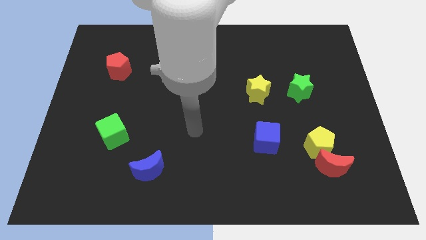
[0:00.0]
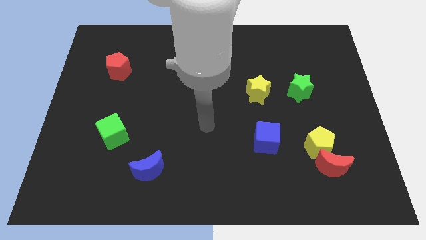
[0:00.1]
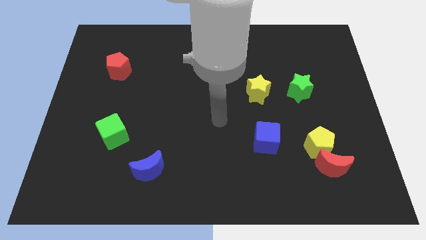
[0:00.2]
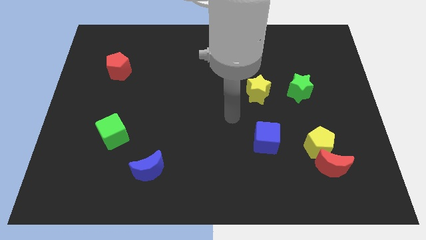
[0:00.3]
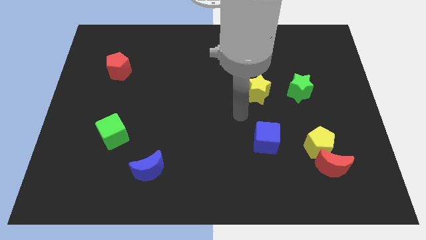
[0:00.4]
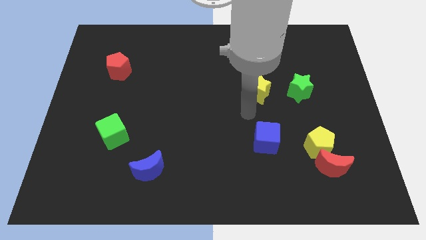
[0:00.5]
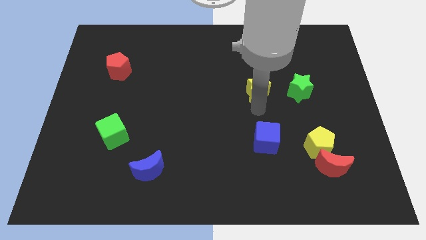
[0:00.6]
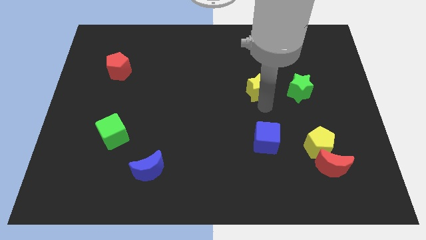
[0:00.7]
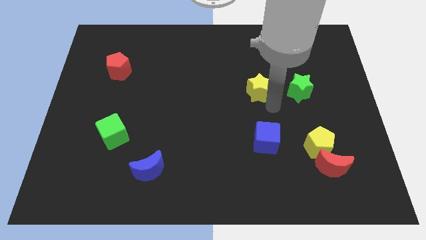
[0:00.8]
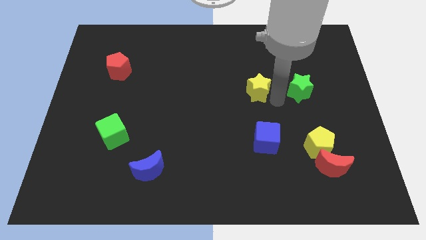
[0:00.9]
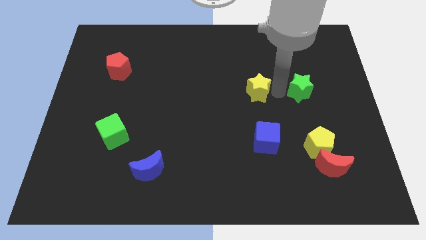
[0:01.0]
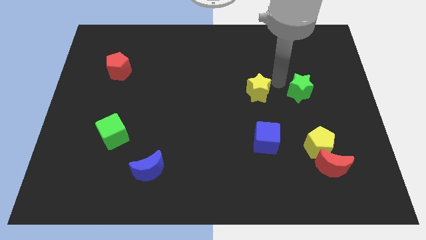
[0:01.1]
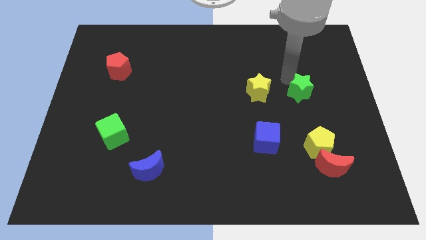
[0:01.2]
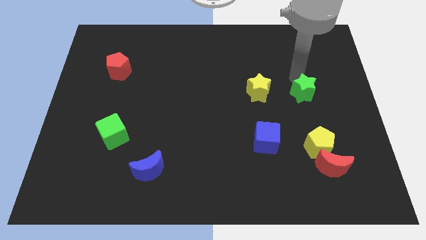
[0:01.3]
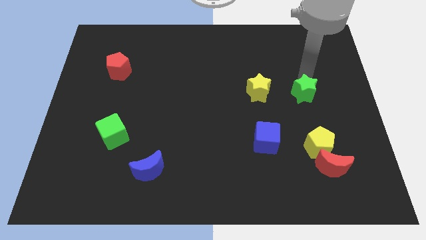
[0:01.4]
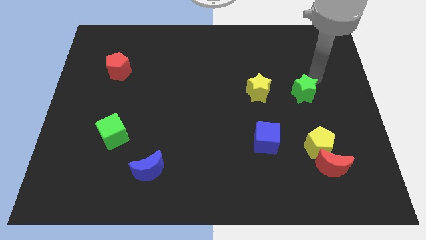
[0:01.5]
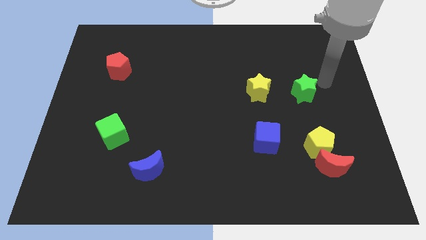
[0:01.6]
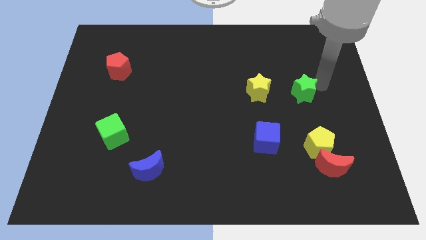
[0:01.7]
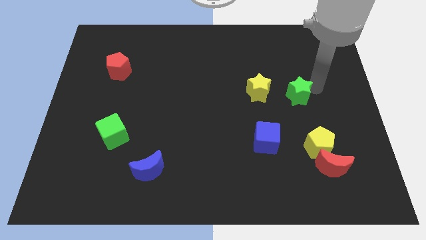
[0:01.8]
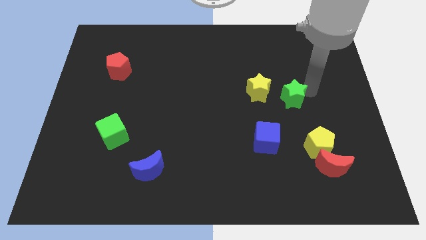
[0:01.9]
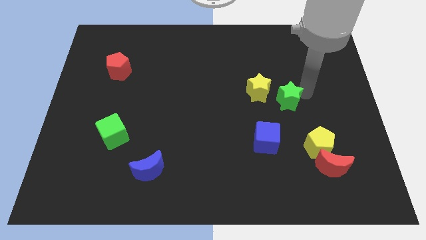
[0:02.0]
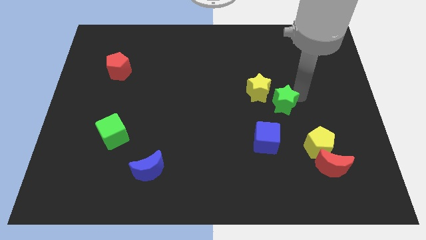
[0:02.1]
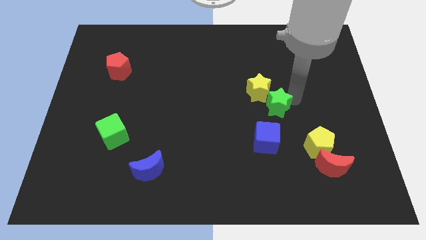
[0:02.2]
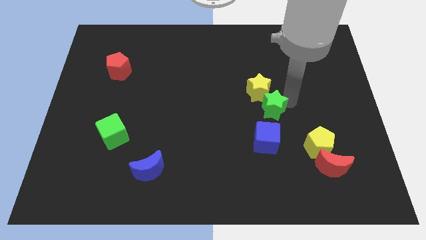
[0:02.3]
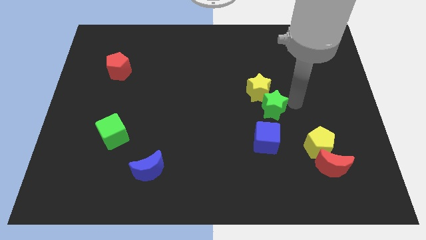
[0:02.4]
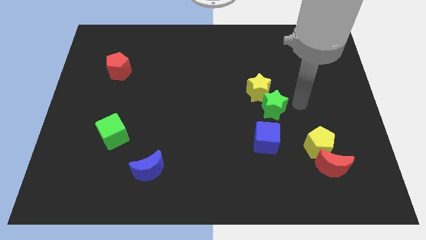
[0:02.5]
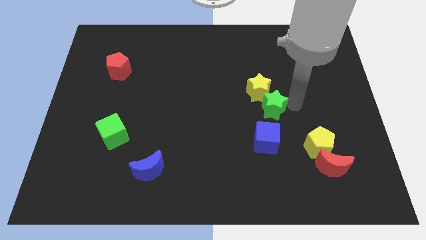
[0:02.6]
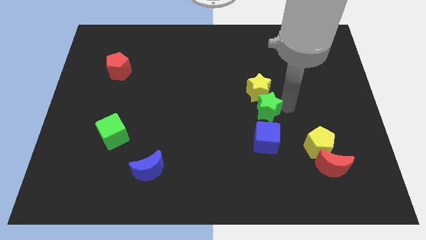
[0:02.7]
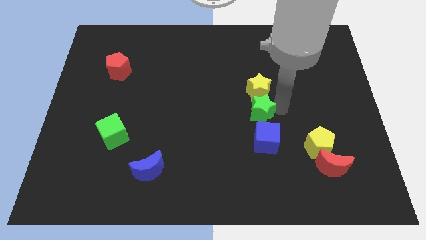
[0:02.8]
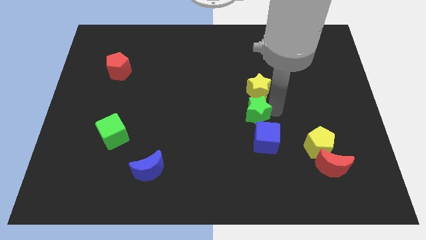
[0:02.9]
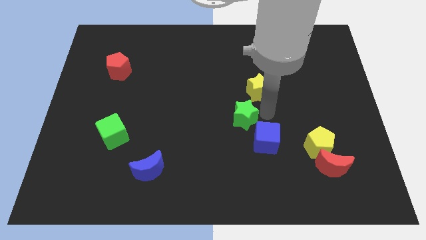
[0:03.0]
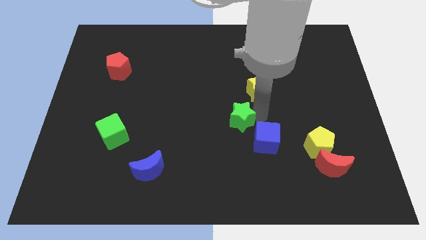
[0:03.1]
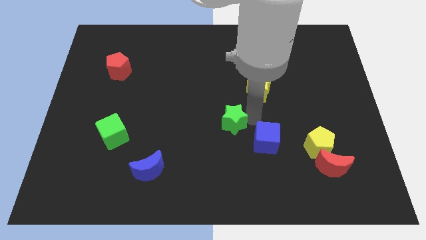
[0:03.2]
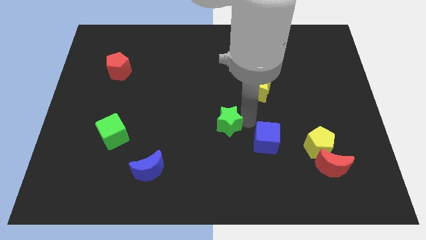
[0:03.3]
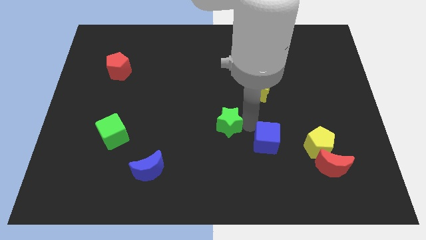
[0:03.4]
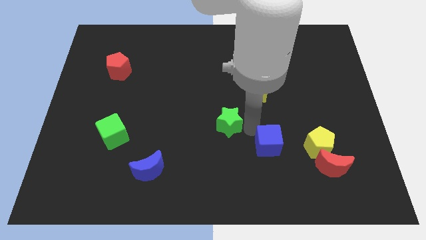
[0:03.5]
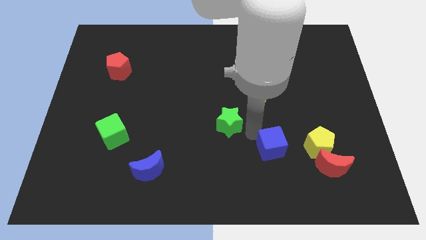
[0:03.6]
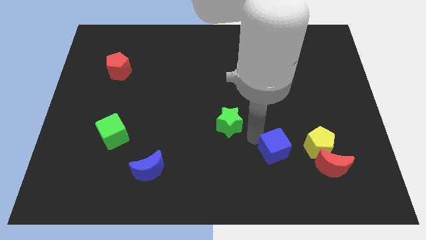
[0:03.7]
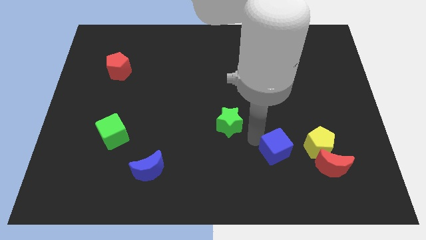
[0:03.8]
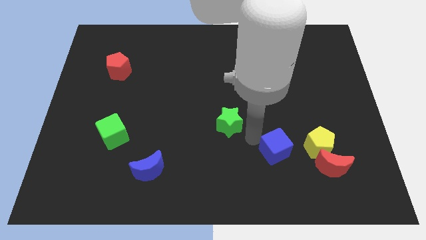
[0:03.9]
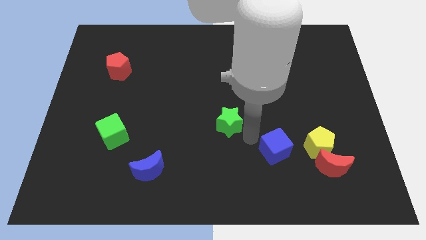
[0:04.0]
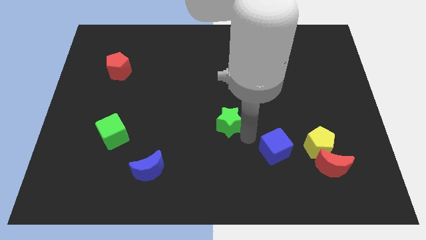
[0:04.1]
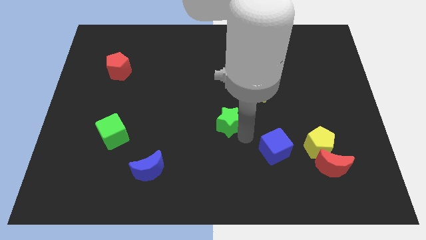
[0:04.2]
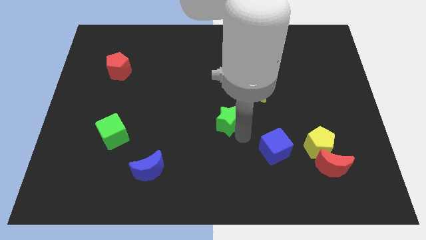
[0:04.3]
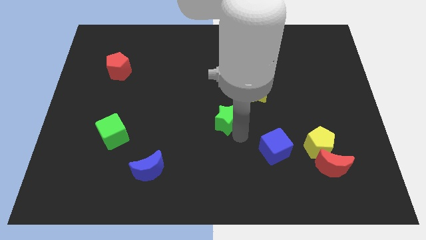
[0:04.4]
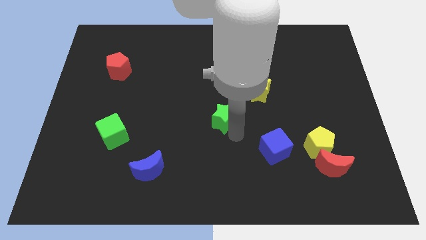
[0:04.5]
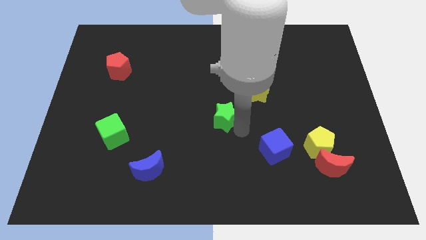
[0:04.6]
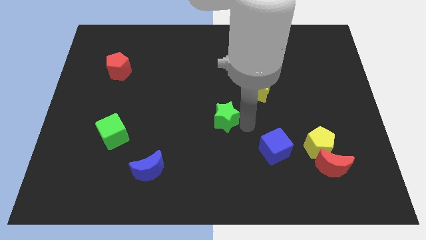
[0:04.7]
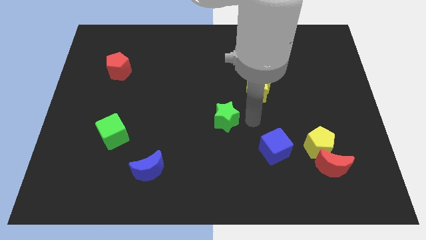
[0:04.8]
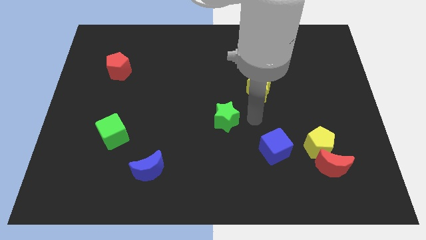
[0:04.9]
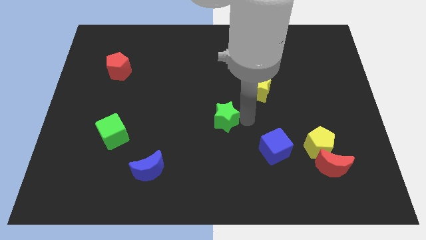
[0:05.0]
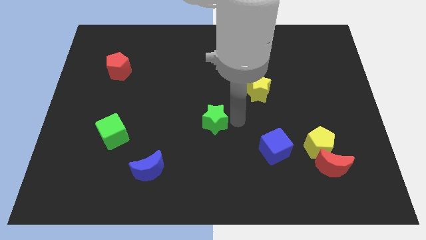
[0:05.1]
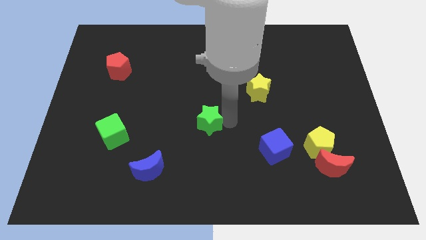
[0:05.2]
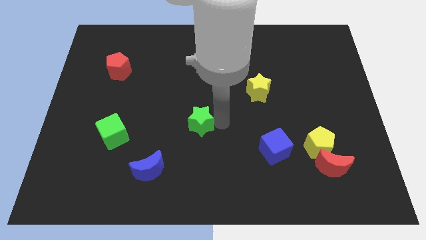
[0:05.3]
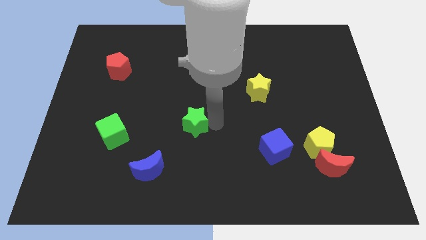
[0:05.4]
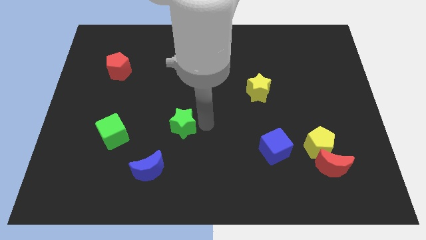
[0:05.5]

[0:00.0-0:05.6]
move the green star right of the green cube

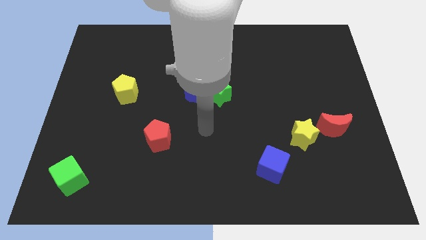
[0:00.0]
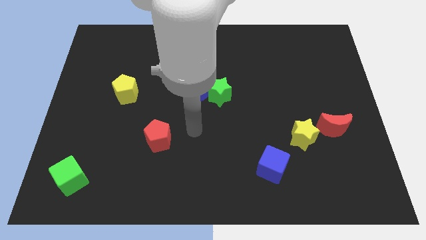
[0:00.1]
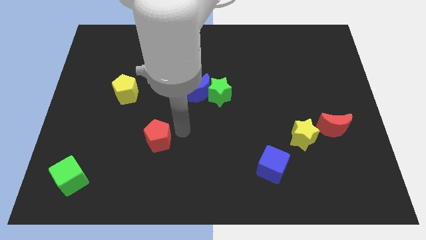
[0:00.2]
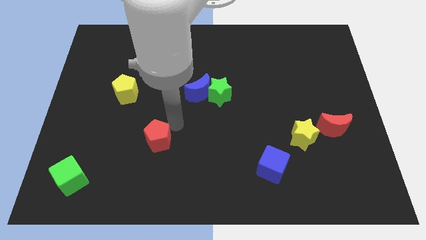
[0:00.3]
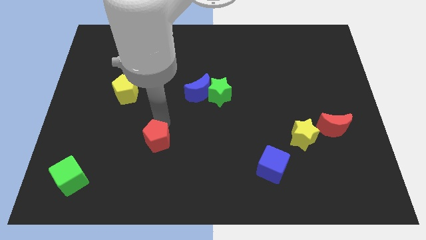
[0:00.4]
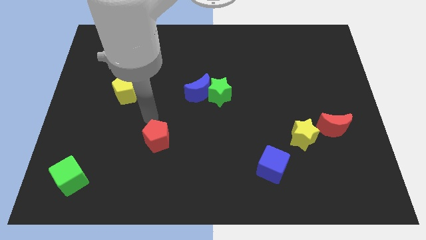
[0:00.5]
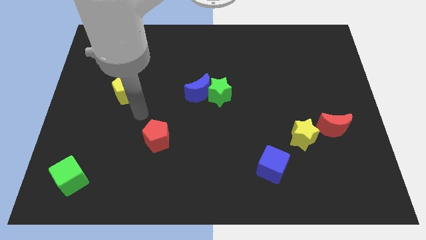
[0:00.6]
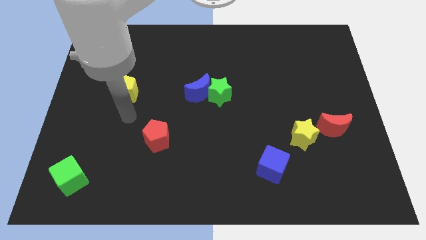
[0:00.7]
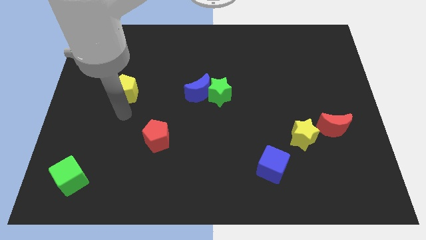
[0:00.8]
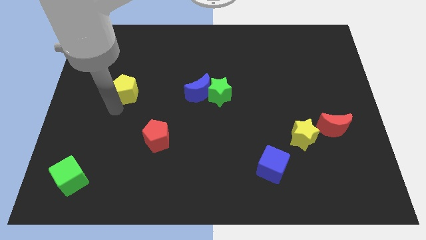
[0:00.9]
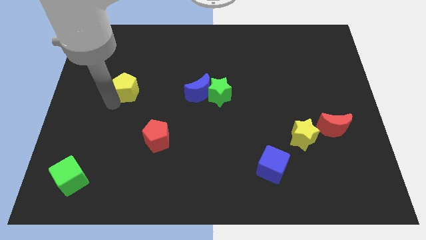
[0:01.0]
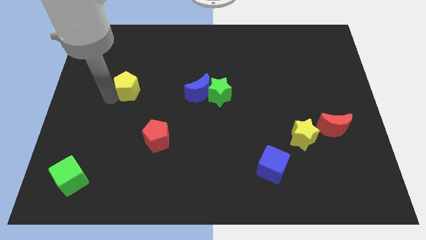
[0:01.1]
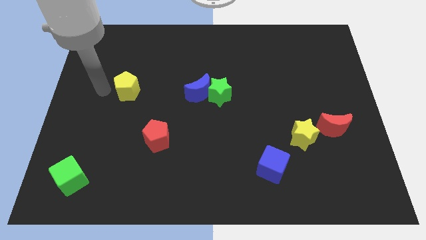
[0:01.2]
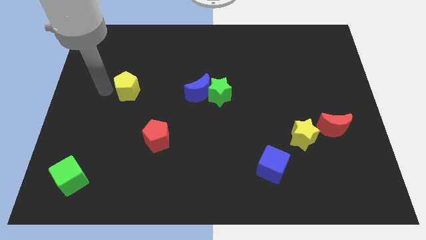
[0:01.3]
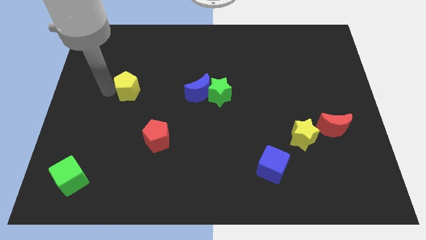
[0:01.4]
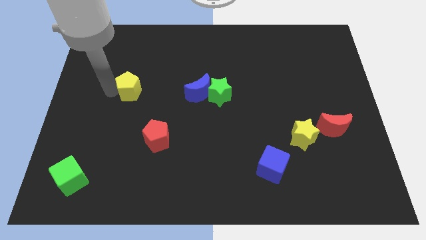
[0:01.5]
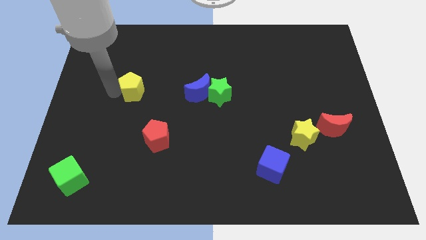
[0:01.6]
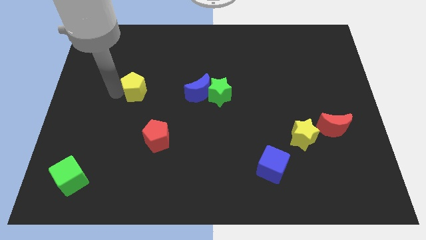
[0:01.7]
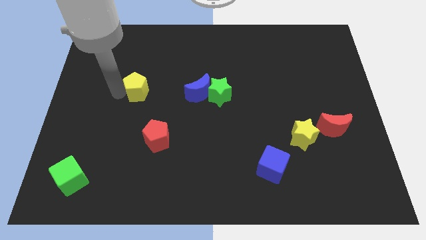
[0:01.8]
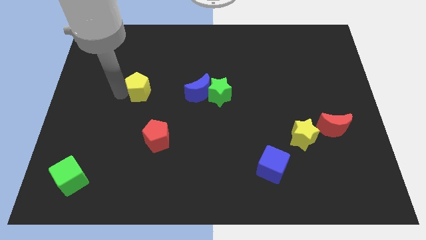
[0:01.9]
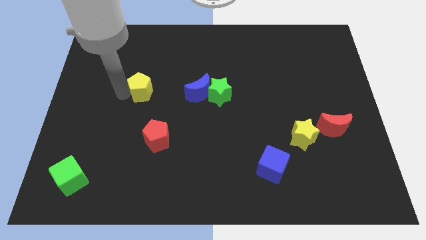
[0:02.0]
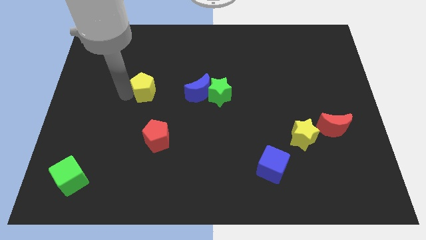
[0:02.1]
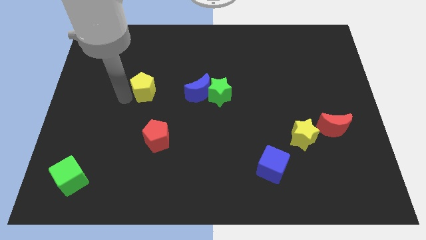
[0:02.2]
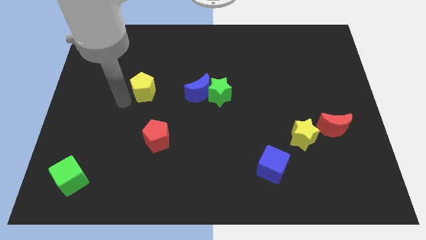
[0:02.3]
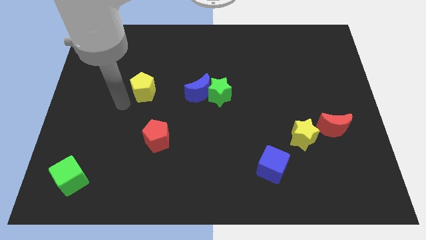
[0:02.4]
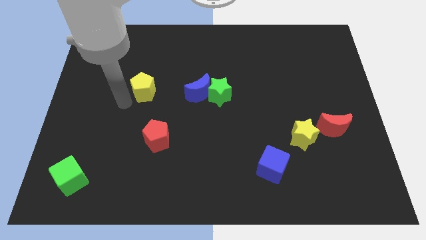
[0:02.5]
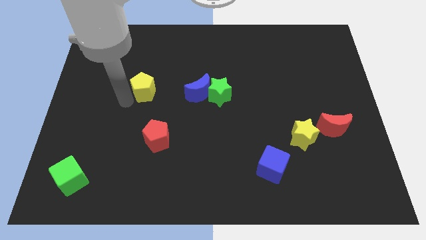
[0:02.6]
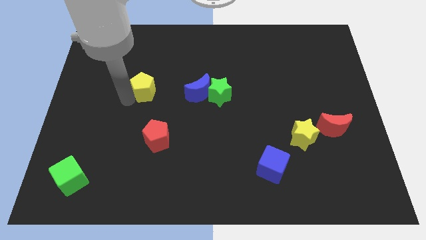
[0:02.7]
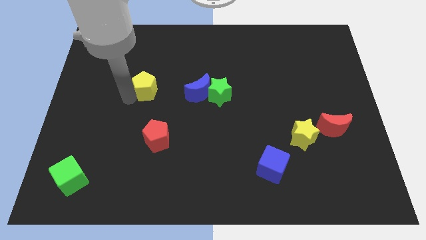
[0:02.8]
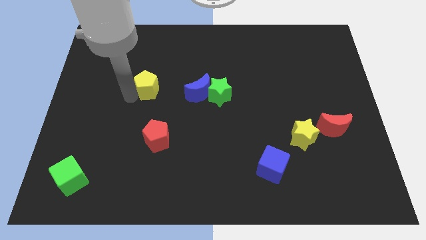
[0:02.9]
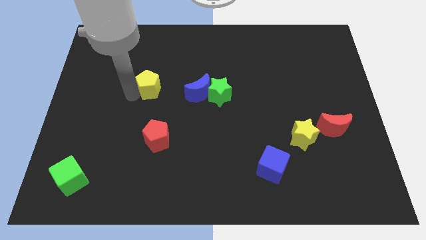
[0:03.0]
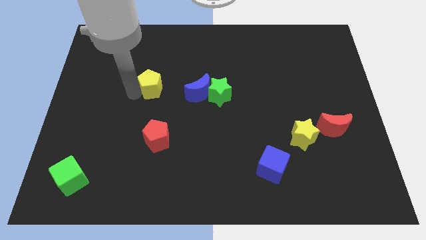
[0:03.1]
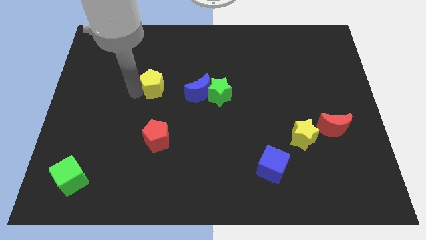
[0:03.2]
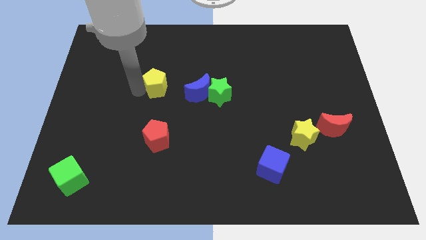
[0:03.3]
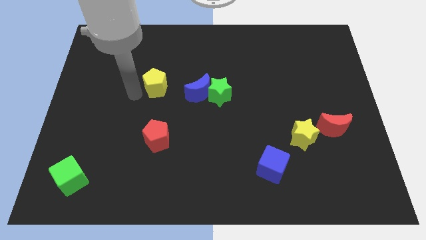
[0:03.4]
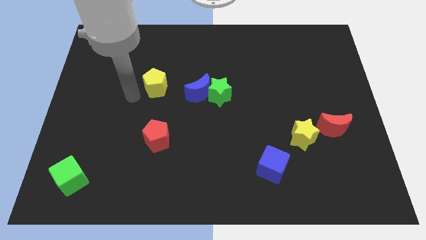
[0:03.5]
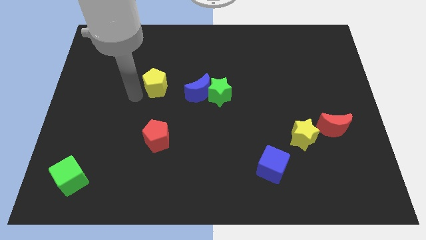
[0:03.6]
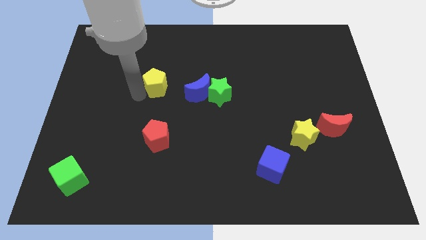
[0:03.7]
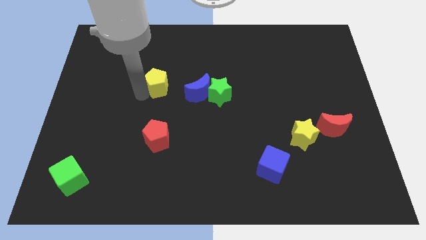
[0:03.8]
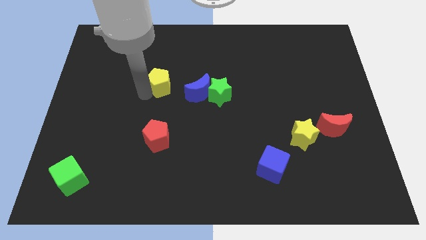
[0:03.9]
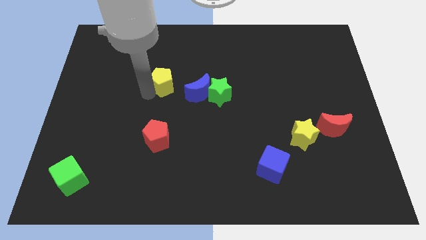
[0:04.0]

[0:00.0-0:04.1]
put the yellow pentagon diagonally up and to the left of the blue moon
